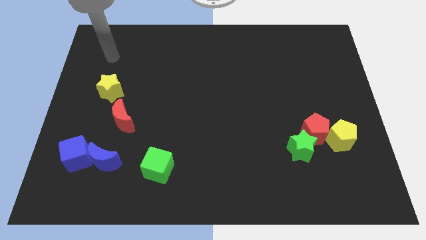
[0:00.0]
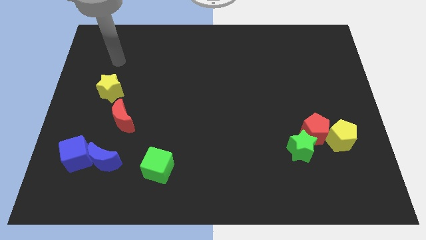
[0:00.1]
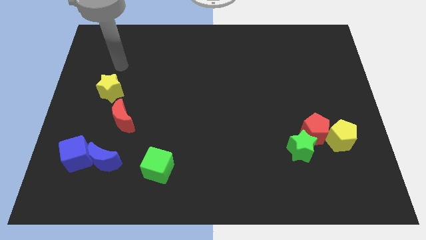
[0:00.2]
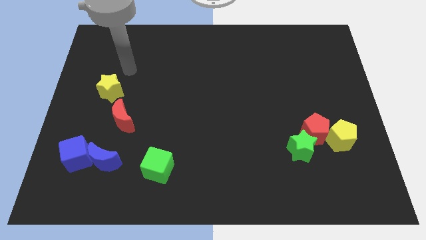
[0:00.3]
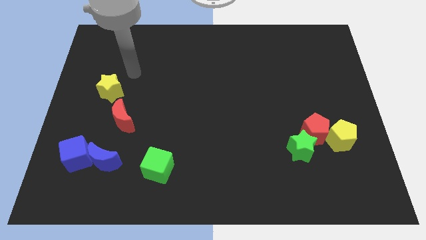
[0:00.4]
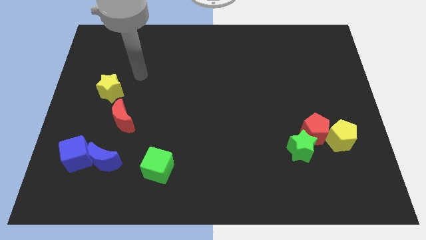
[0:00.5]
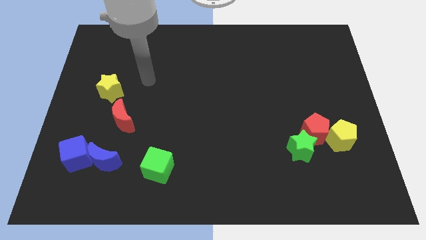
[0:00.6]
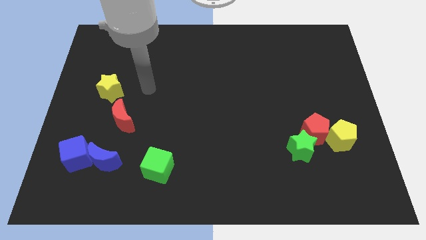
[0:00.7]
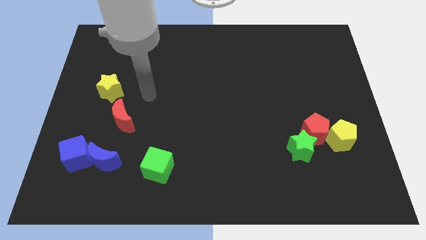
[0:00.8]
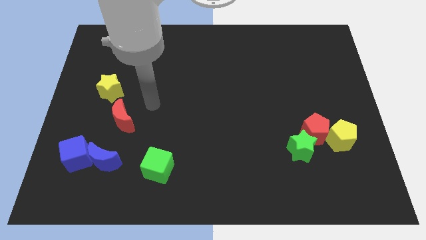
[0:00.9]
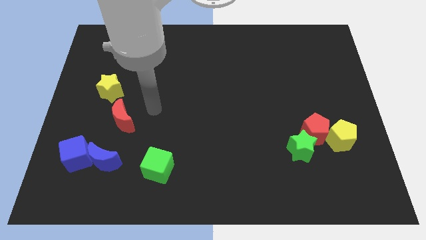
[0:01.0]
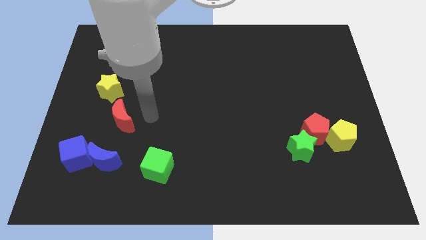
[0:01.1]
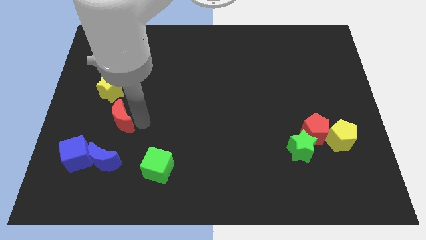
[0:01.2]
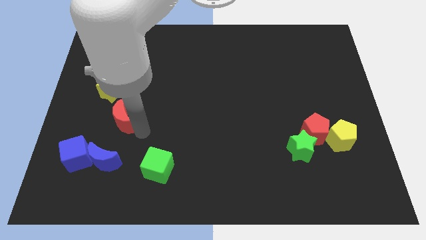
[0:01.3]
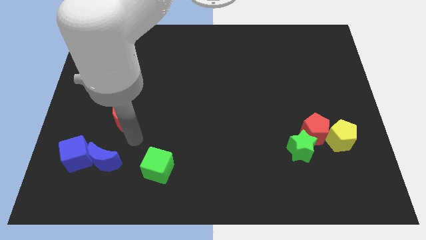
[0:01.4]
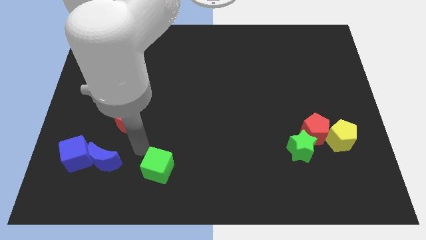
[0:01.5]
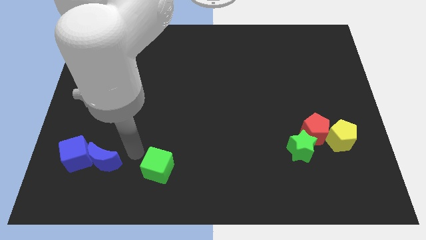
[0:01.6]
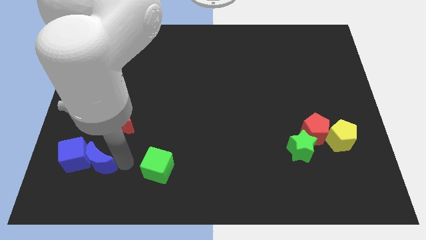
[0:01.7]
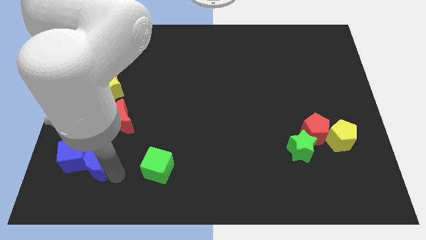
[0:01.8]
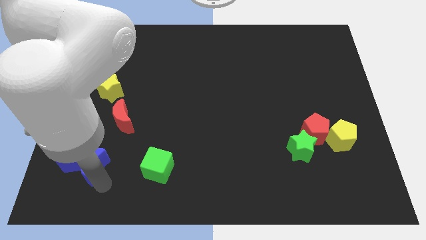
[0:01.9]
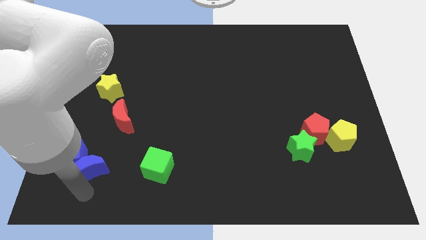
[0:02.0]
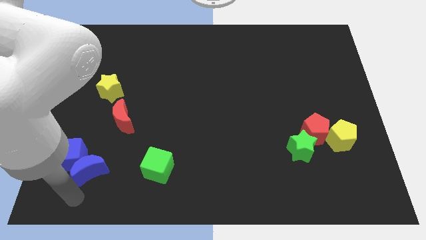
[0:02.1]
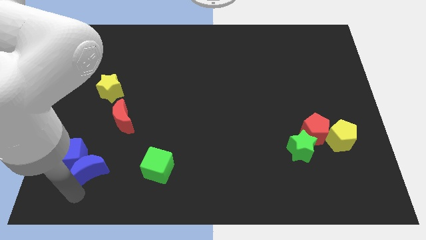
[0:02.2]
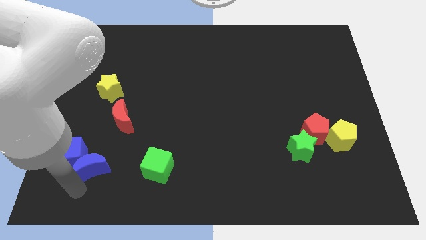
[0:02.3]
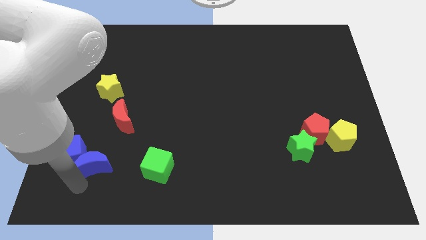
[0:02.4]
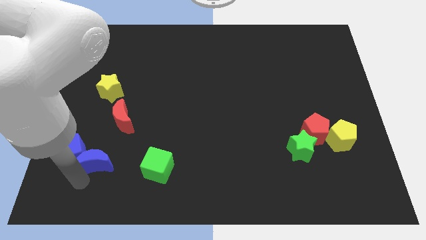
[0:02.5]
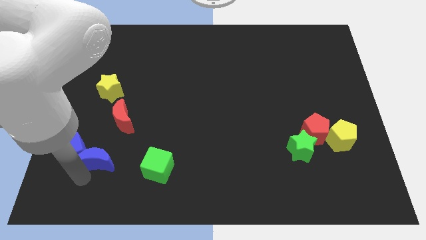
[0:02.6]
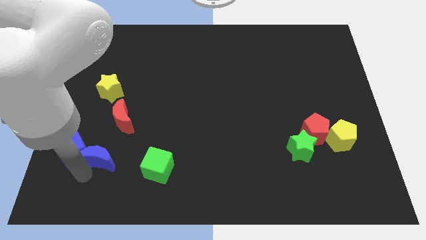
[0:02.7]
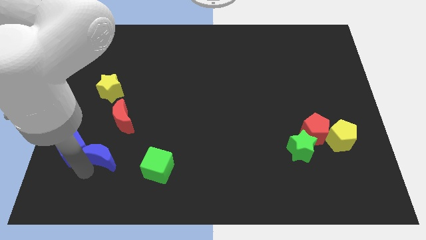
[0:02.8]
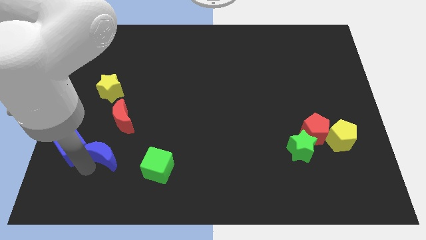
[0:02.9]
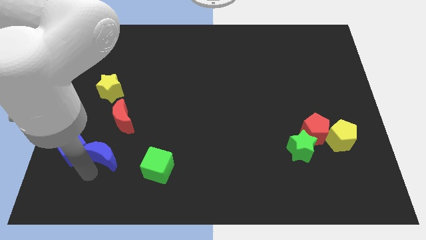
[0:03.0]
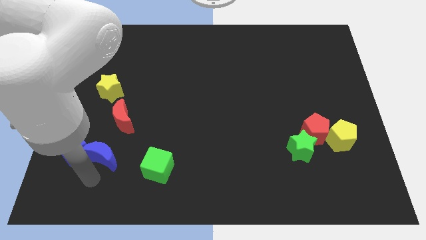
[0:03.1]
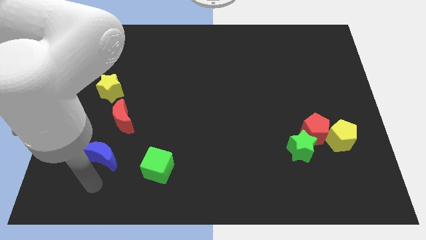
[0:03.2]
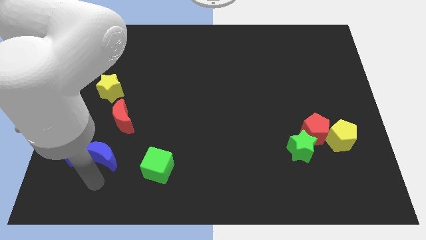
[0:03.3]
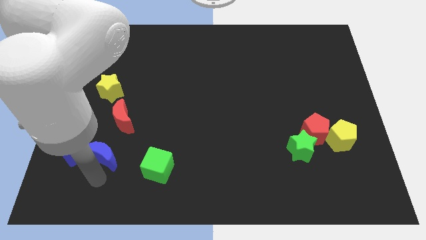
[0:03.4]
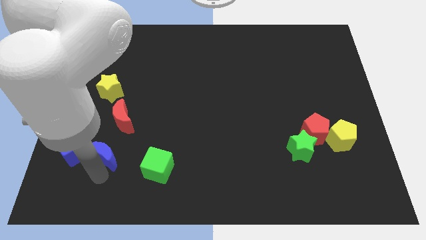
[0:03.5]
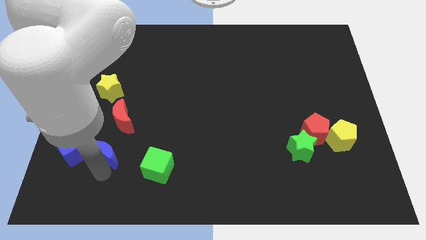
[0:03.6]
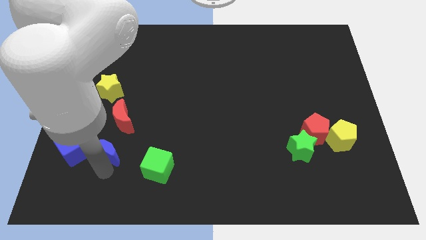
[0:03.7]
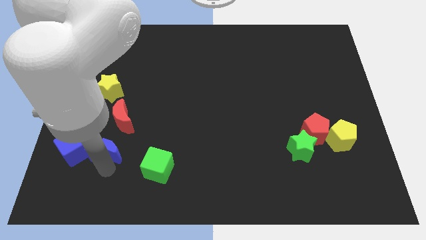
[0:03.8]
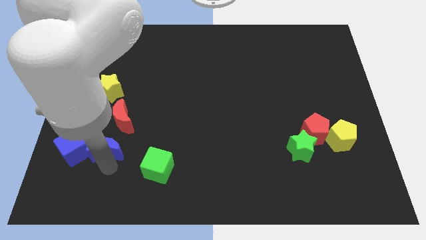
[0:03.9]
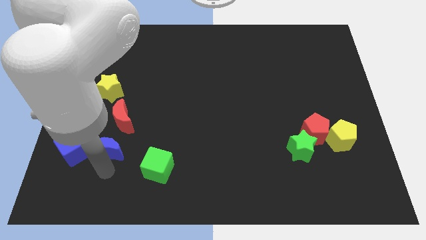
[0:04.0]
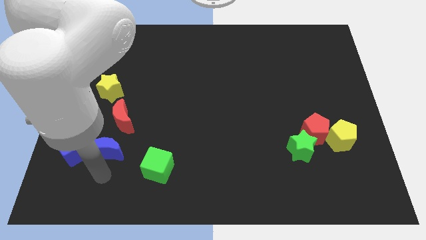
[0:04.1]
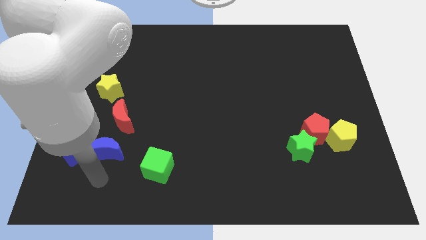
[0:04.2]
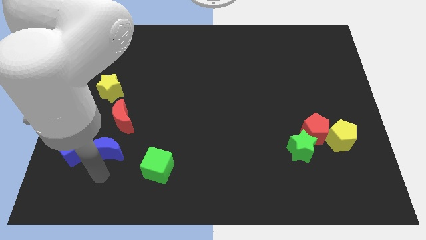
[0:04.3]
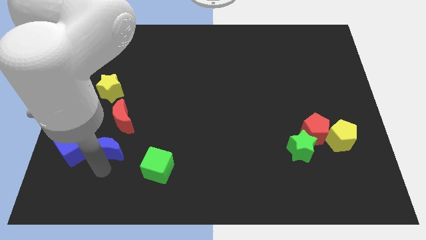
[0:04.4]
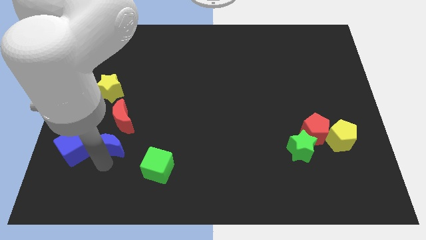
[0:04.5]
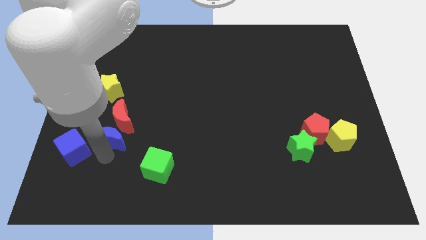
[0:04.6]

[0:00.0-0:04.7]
put the blue moon close to the red moon

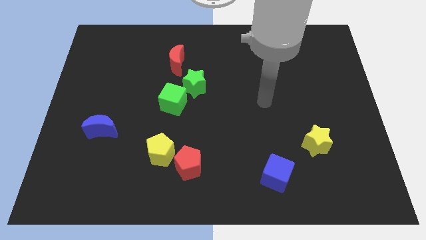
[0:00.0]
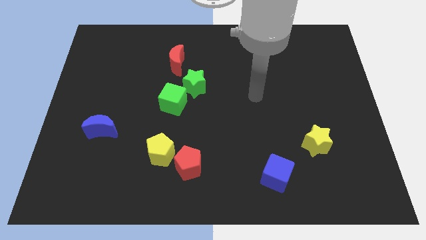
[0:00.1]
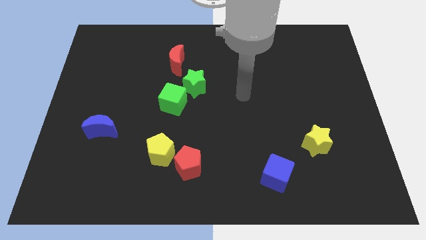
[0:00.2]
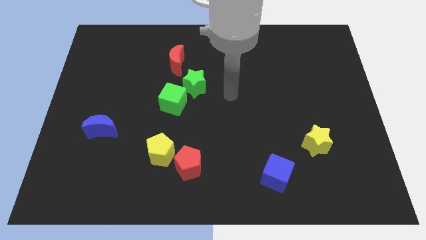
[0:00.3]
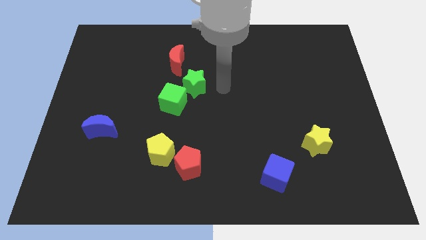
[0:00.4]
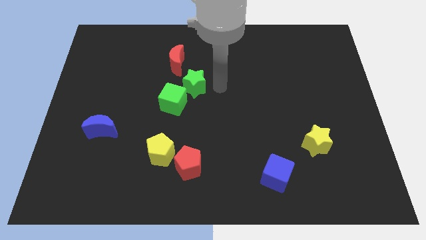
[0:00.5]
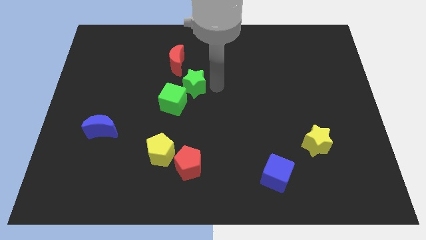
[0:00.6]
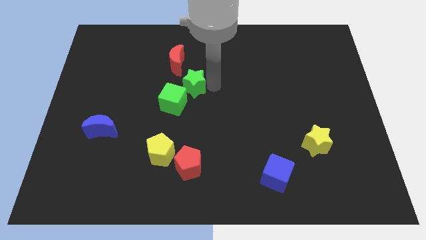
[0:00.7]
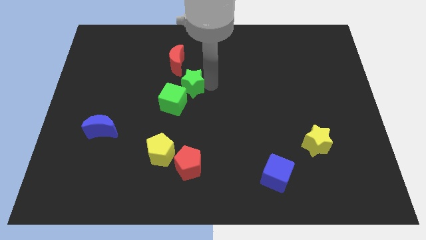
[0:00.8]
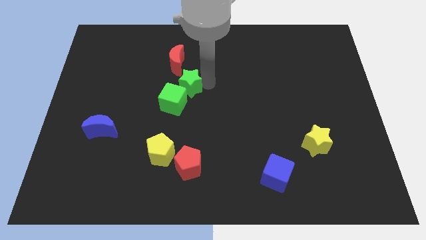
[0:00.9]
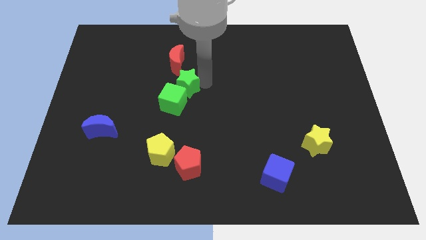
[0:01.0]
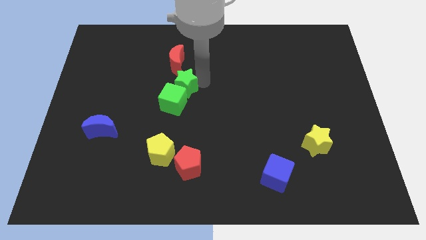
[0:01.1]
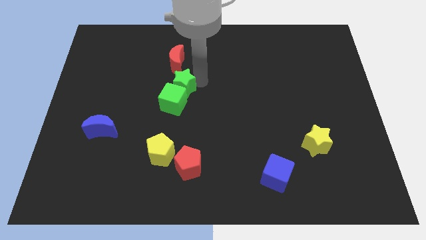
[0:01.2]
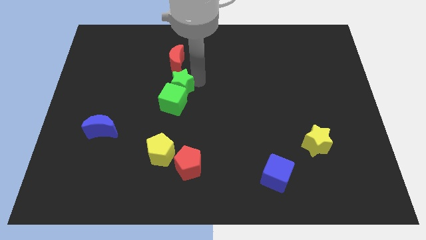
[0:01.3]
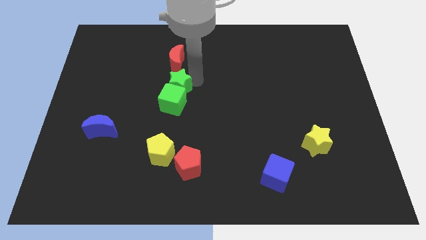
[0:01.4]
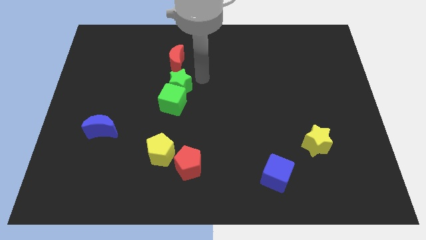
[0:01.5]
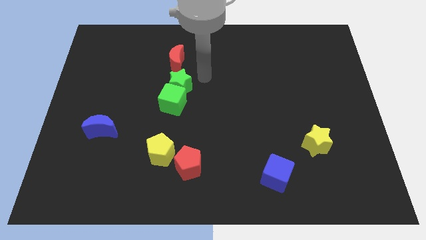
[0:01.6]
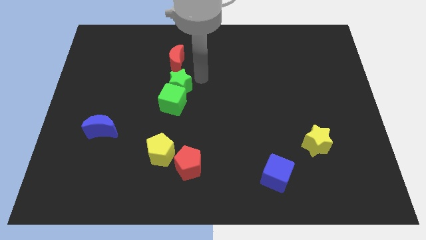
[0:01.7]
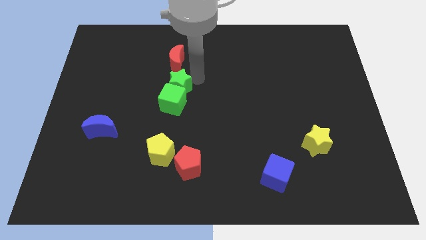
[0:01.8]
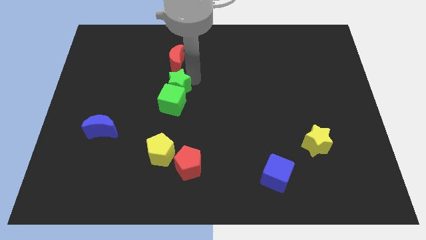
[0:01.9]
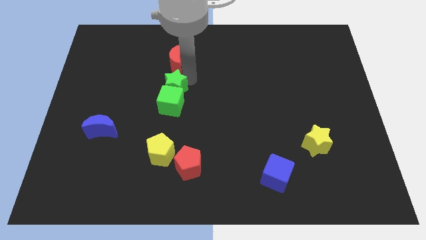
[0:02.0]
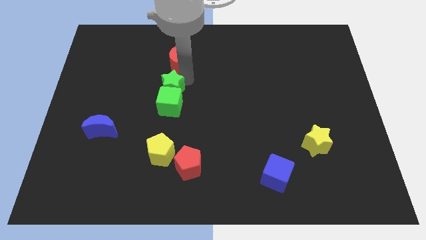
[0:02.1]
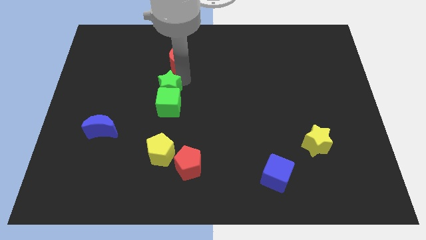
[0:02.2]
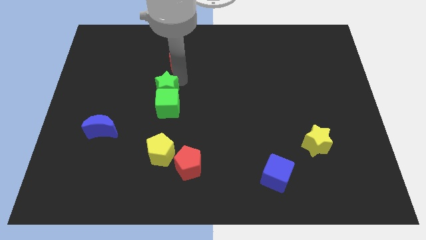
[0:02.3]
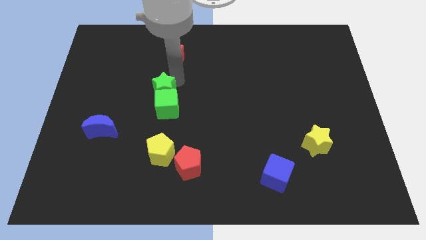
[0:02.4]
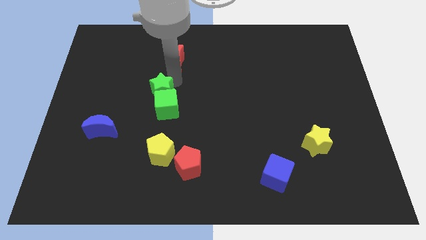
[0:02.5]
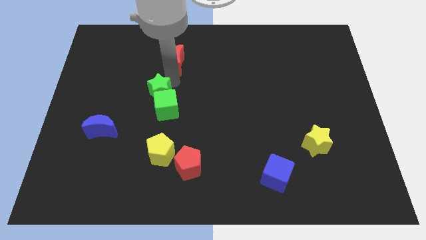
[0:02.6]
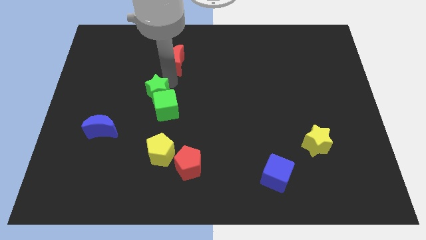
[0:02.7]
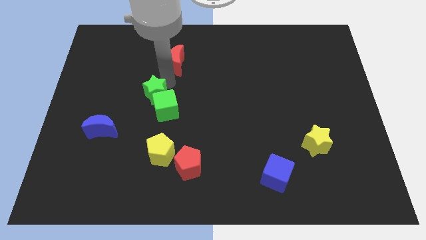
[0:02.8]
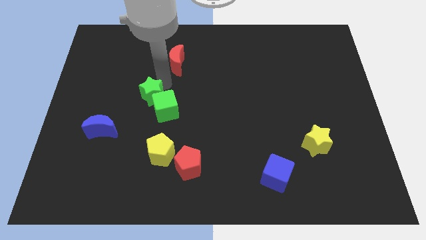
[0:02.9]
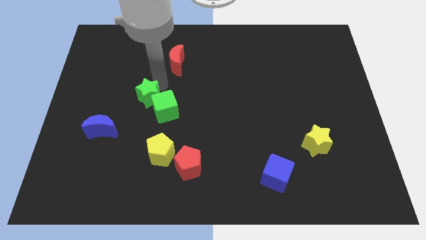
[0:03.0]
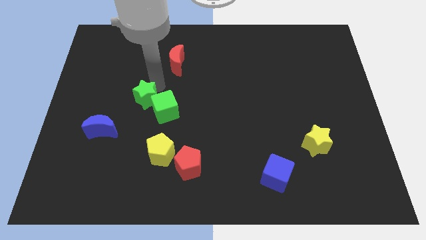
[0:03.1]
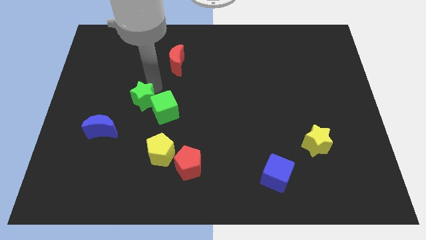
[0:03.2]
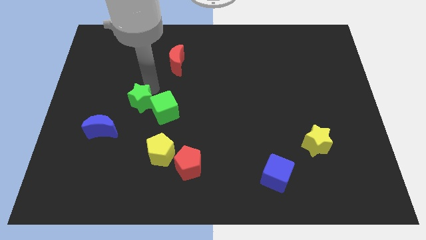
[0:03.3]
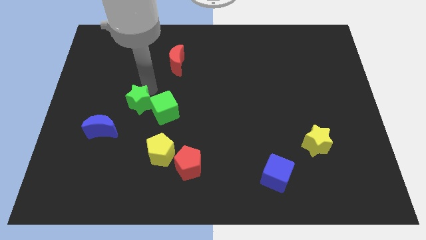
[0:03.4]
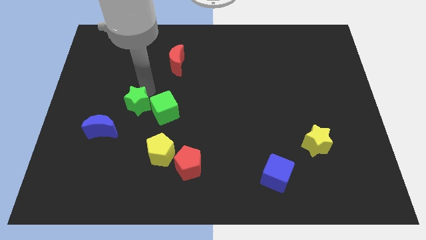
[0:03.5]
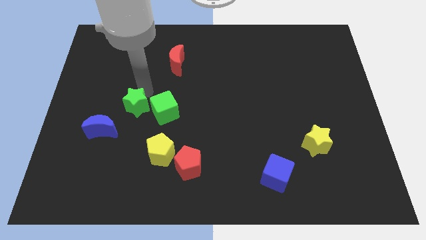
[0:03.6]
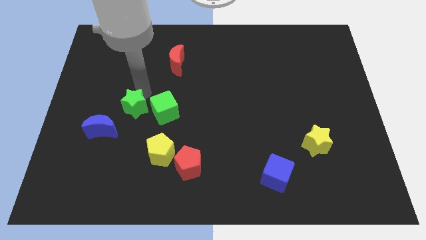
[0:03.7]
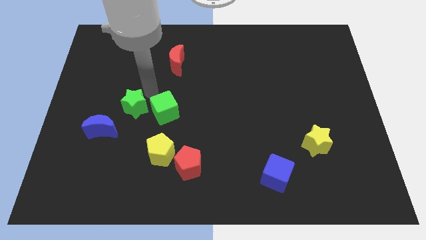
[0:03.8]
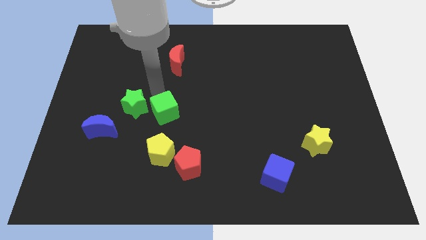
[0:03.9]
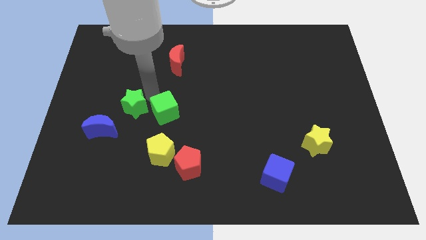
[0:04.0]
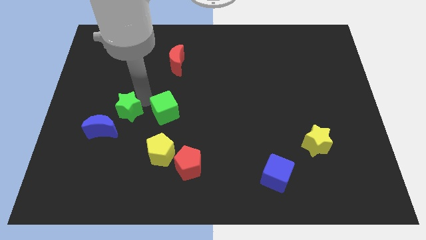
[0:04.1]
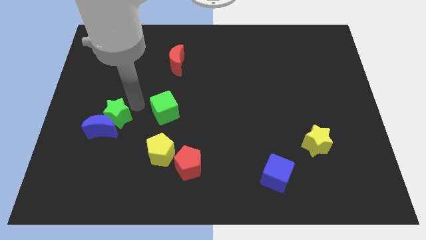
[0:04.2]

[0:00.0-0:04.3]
move the green star close to the blue moon
